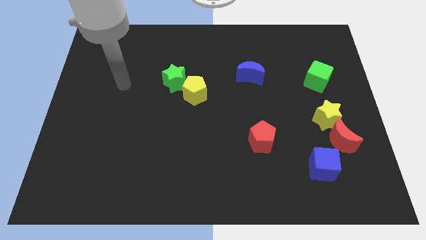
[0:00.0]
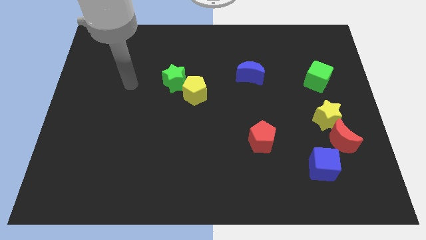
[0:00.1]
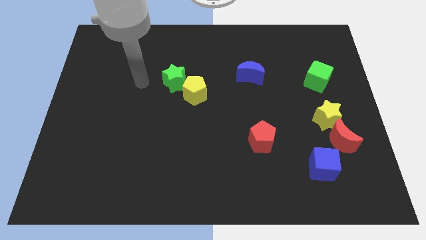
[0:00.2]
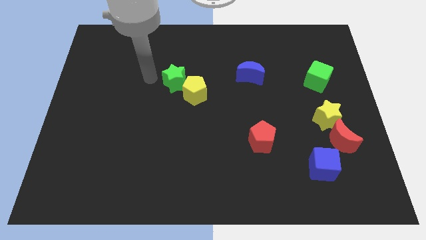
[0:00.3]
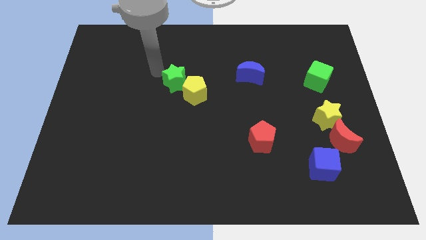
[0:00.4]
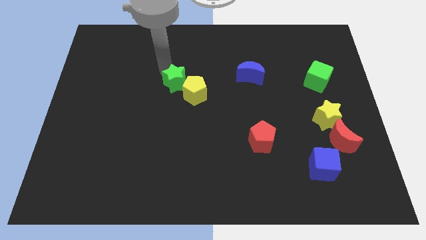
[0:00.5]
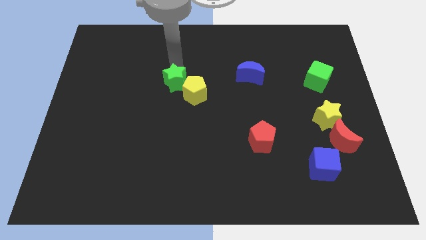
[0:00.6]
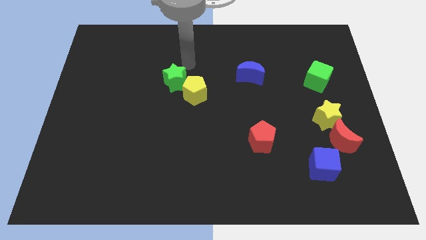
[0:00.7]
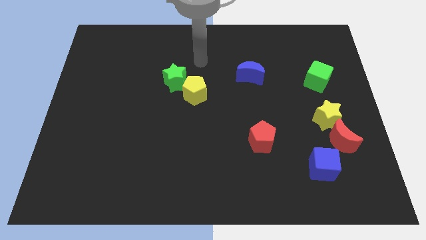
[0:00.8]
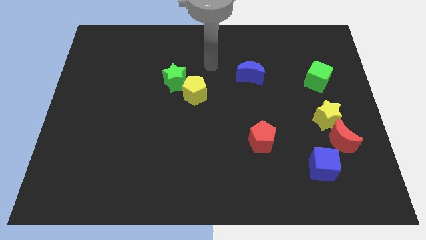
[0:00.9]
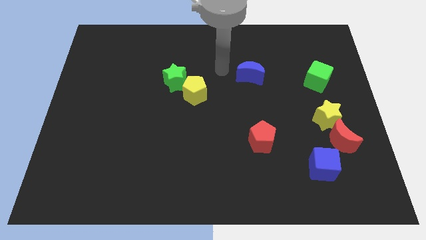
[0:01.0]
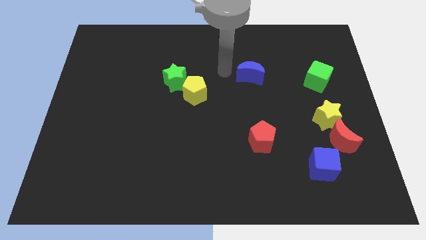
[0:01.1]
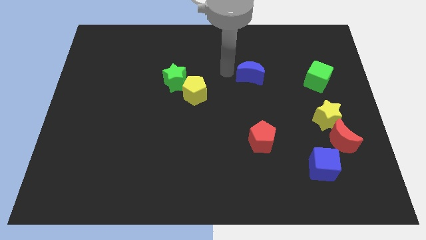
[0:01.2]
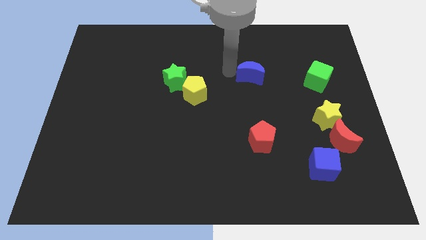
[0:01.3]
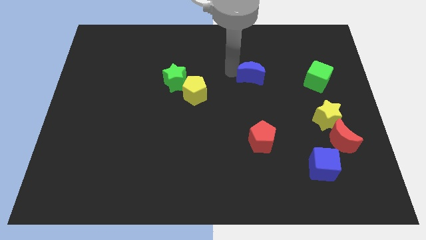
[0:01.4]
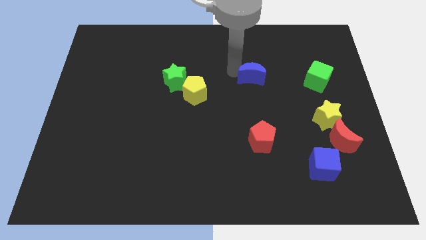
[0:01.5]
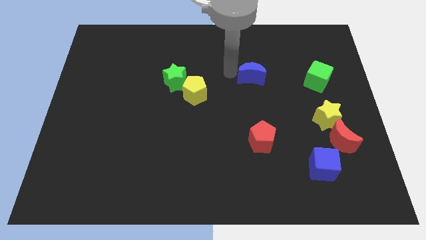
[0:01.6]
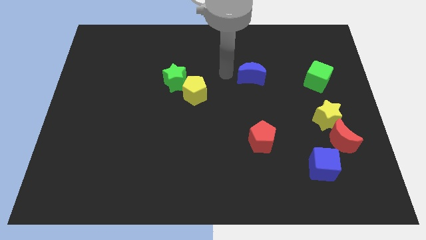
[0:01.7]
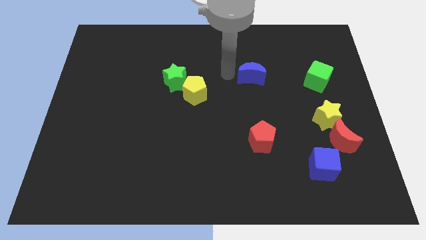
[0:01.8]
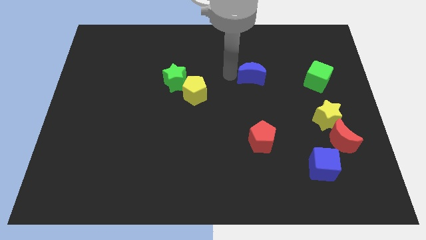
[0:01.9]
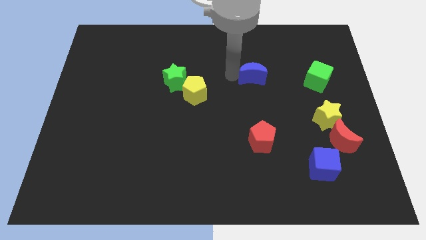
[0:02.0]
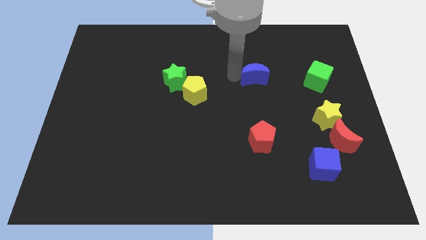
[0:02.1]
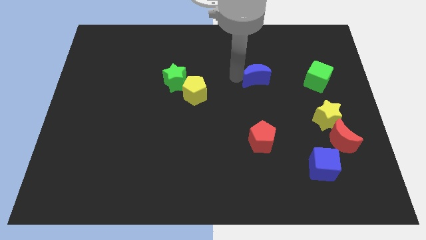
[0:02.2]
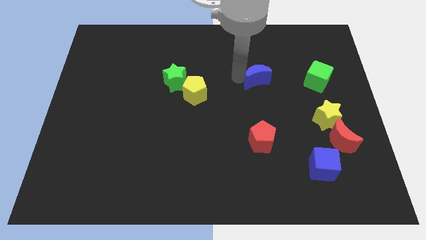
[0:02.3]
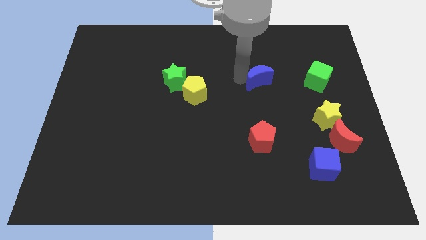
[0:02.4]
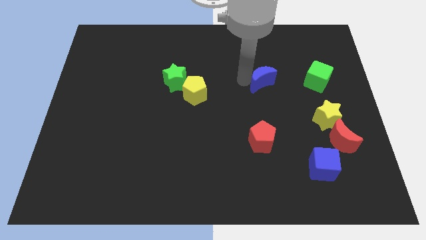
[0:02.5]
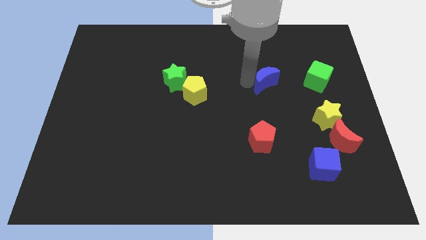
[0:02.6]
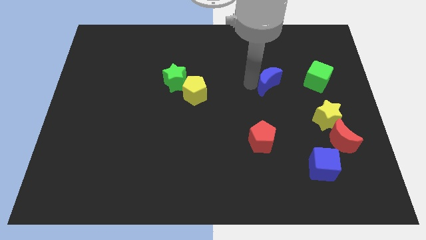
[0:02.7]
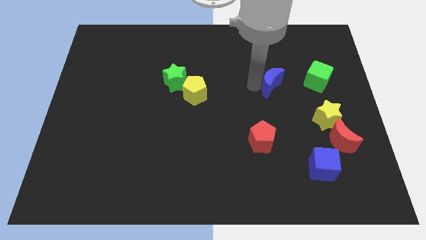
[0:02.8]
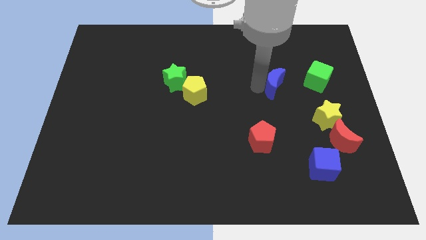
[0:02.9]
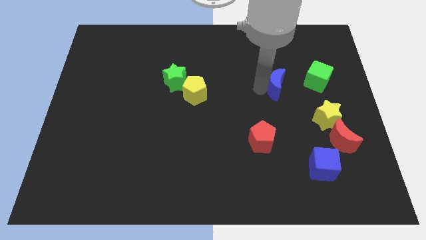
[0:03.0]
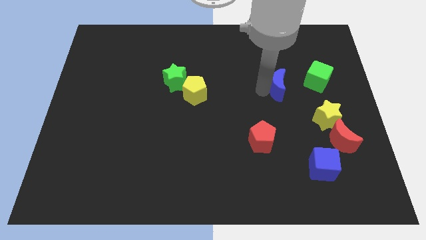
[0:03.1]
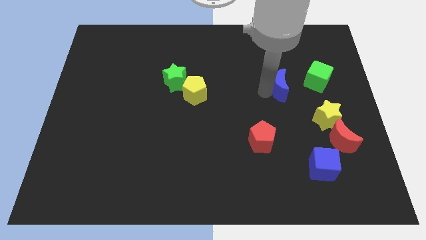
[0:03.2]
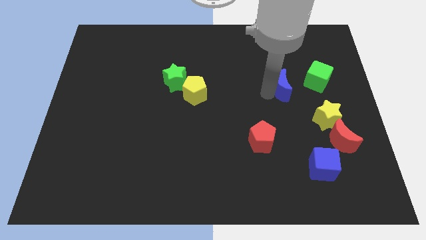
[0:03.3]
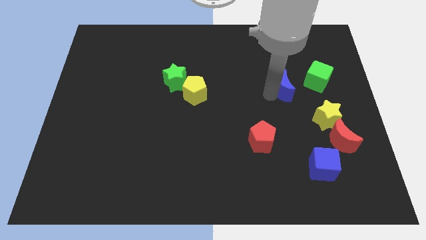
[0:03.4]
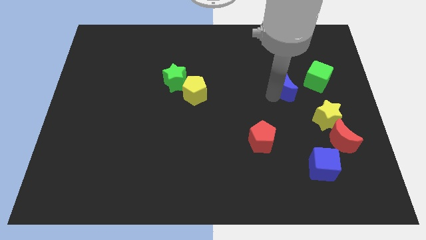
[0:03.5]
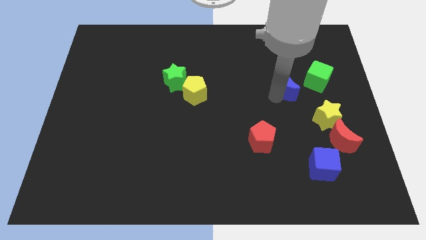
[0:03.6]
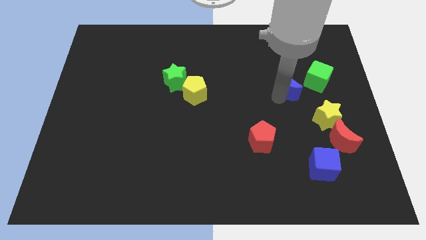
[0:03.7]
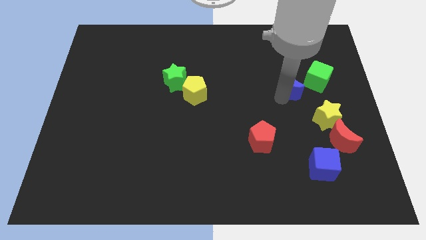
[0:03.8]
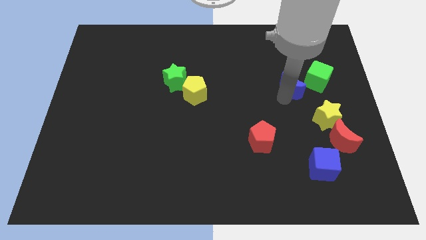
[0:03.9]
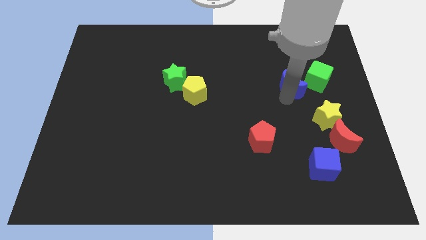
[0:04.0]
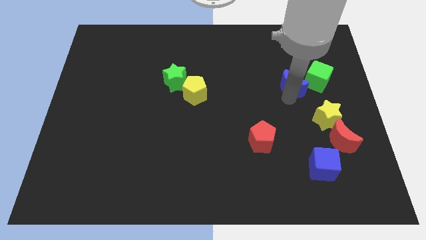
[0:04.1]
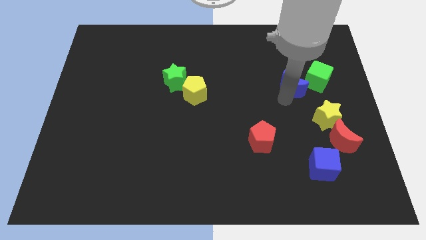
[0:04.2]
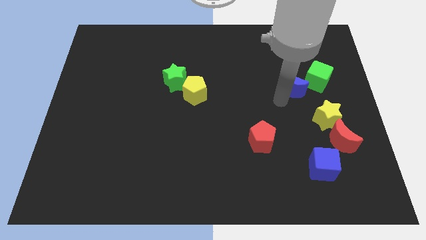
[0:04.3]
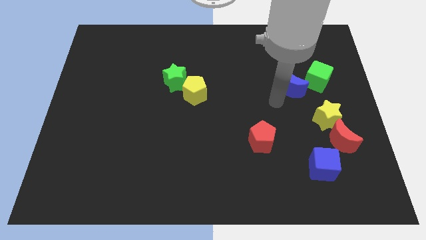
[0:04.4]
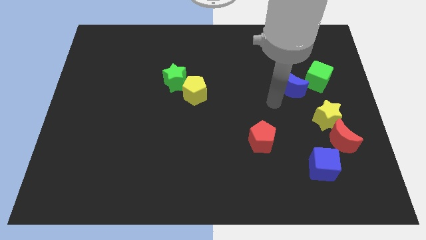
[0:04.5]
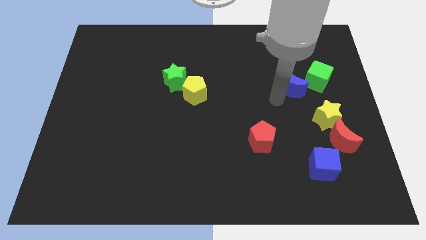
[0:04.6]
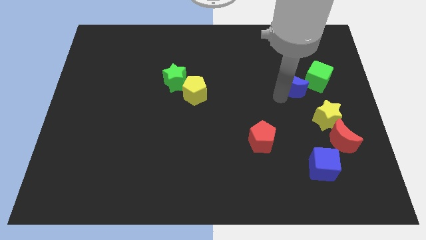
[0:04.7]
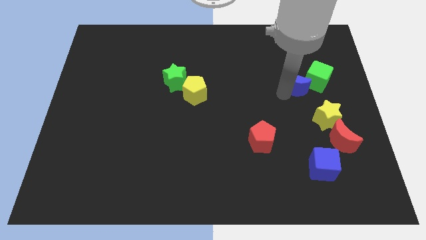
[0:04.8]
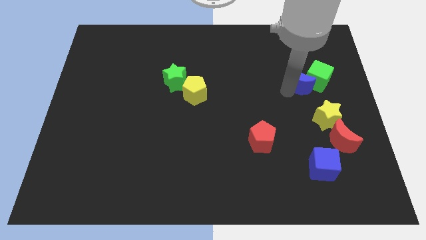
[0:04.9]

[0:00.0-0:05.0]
slide the blue moon close to the green cube

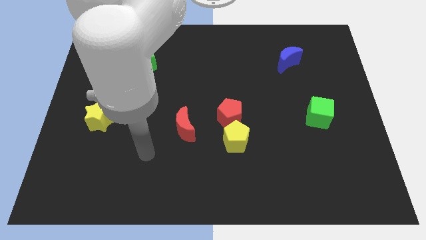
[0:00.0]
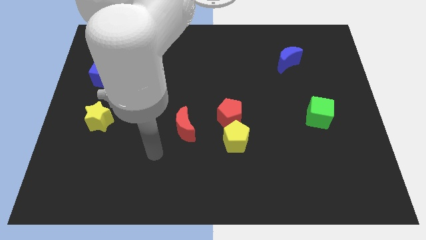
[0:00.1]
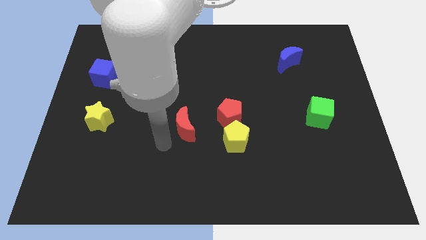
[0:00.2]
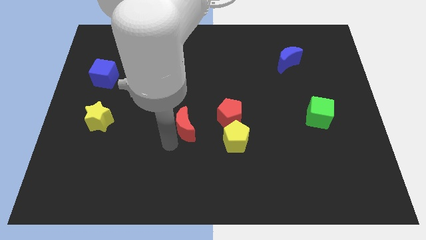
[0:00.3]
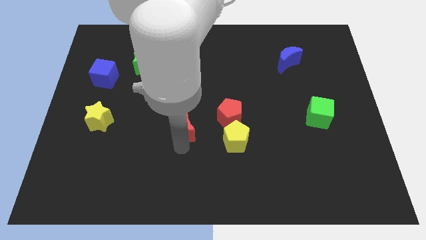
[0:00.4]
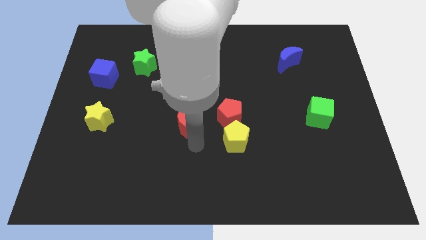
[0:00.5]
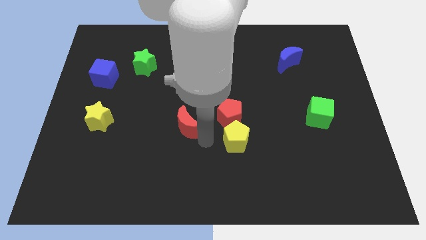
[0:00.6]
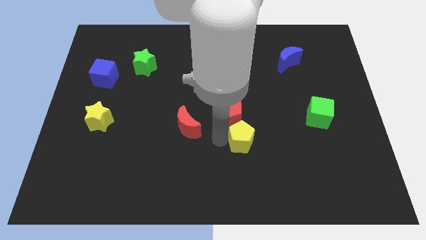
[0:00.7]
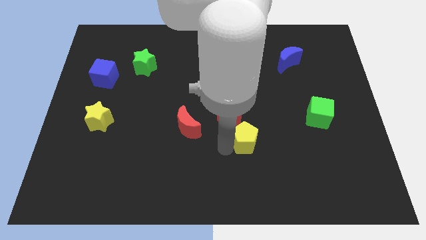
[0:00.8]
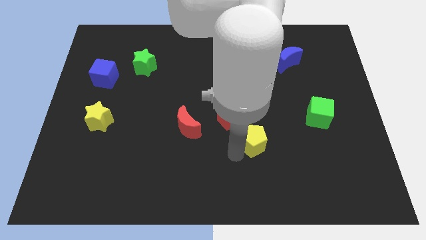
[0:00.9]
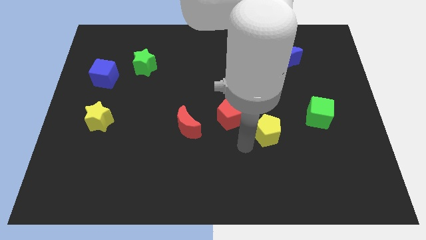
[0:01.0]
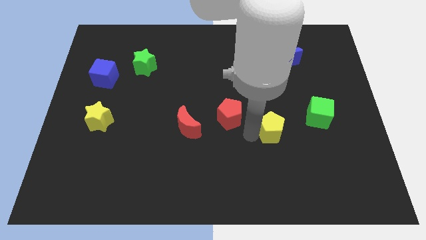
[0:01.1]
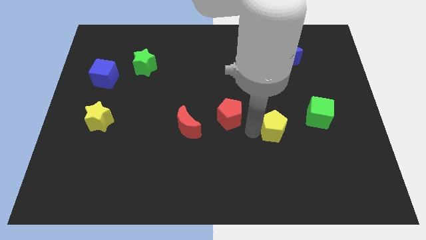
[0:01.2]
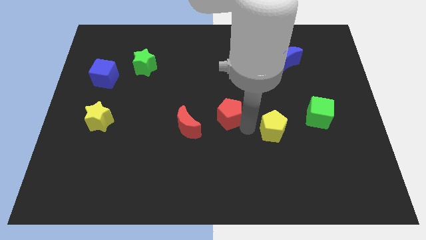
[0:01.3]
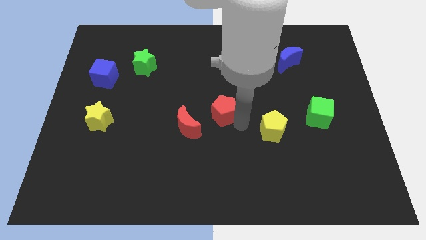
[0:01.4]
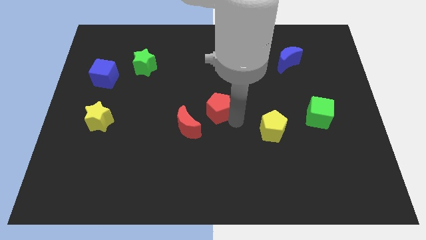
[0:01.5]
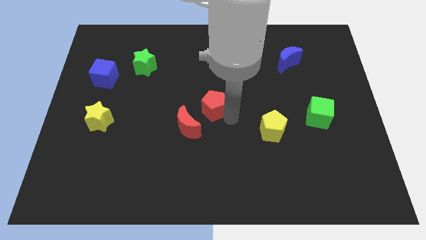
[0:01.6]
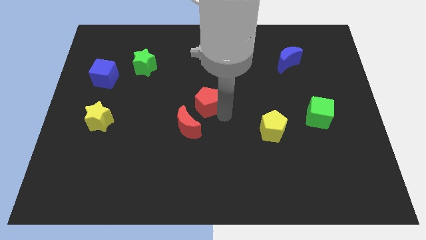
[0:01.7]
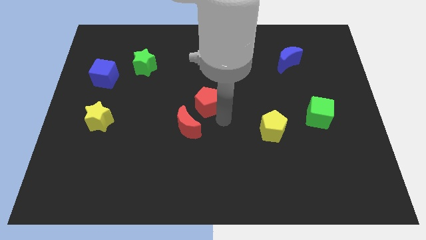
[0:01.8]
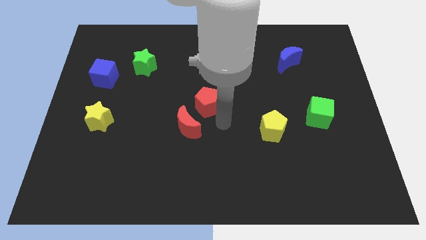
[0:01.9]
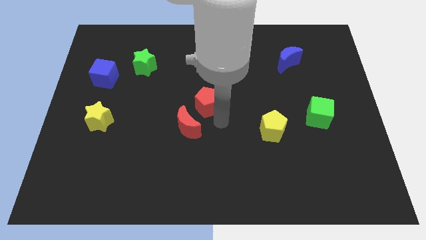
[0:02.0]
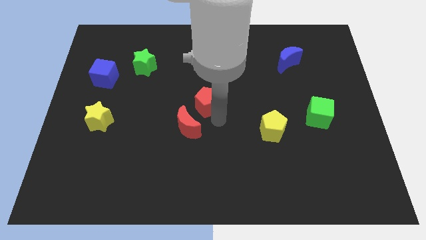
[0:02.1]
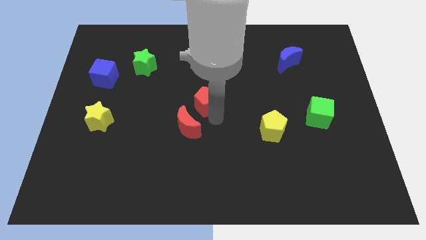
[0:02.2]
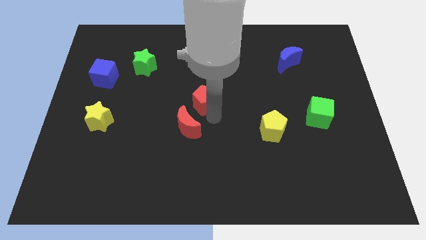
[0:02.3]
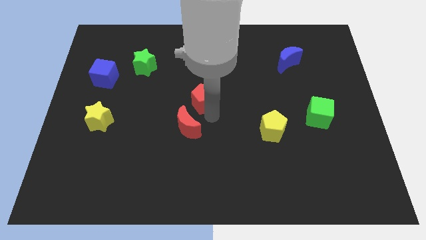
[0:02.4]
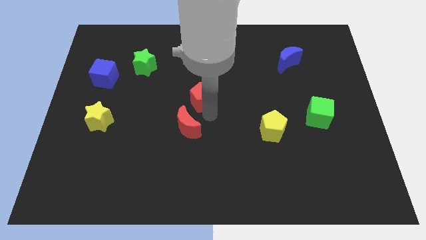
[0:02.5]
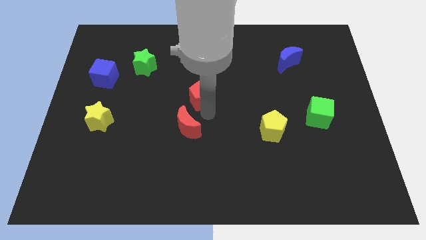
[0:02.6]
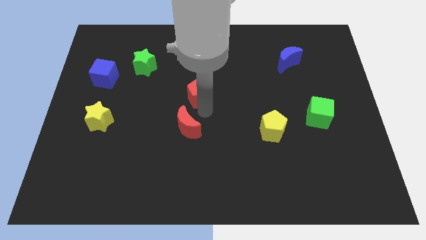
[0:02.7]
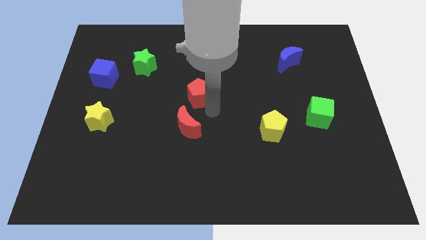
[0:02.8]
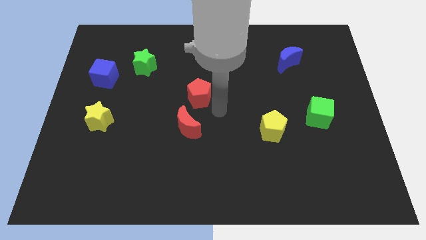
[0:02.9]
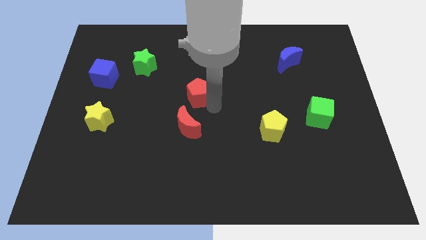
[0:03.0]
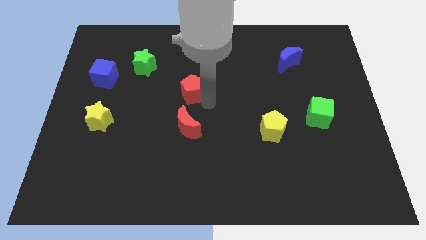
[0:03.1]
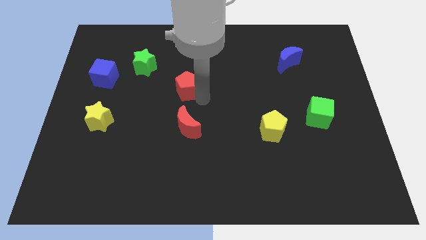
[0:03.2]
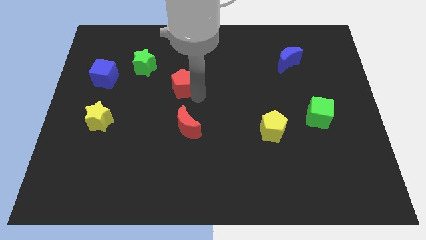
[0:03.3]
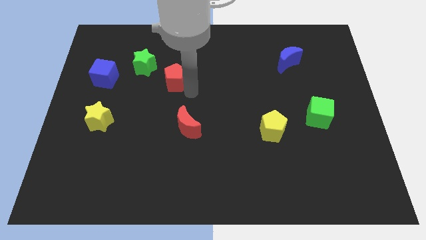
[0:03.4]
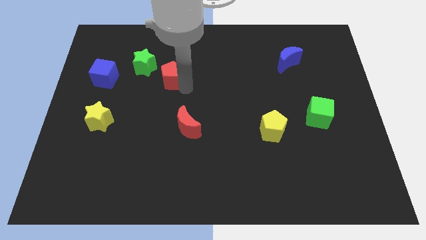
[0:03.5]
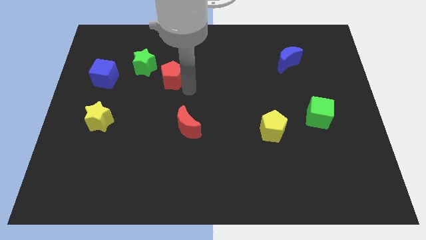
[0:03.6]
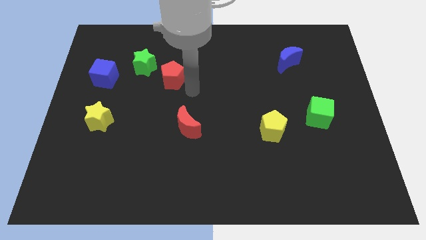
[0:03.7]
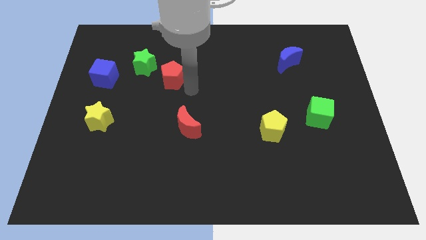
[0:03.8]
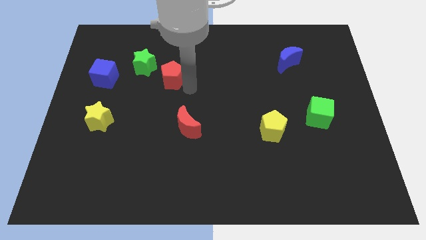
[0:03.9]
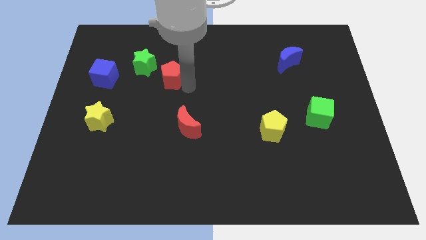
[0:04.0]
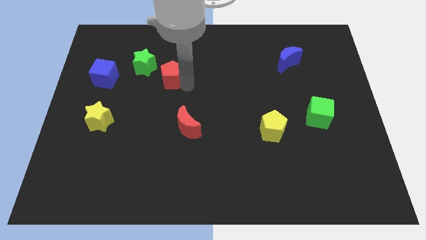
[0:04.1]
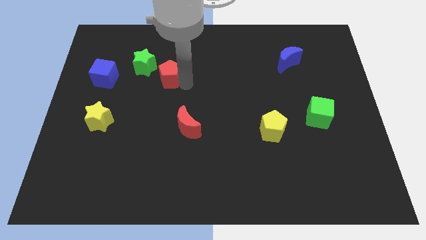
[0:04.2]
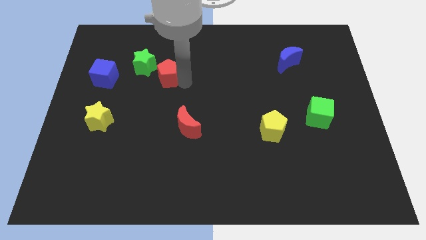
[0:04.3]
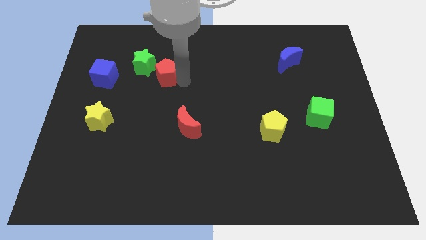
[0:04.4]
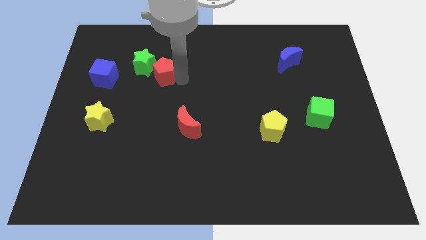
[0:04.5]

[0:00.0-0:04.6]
move the red pentagon towards the green star
